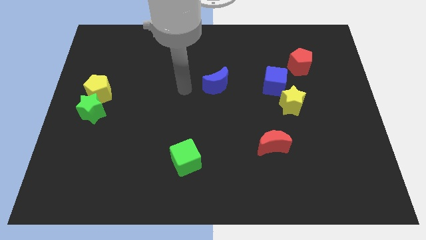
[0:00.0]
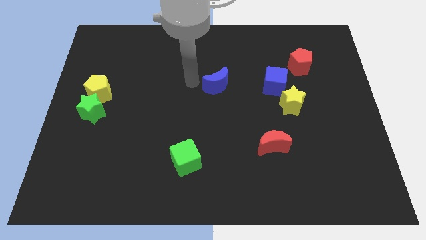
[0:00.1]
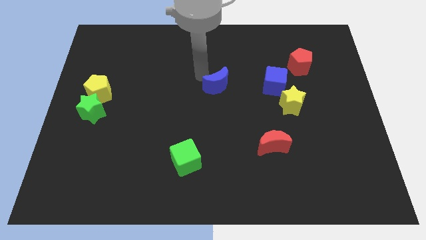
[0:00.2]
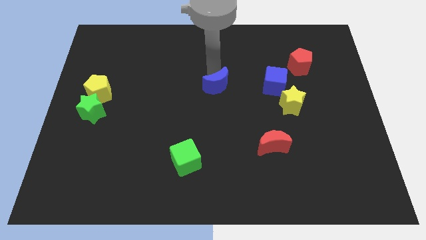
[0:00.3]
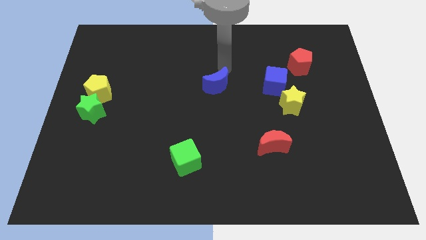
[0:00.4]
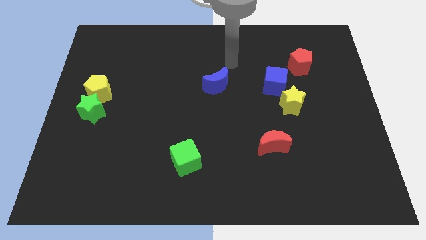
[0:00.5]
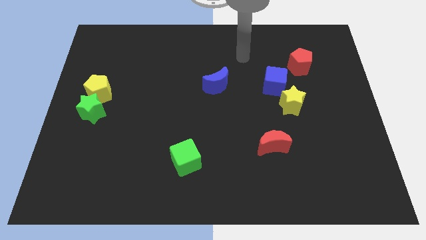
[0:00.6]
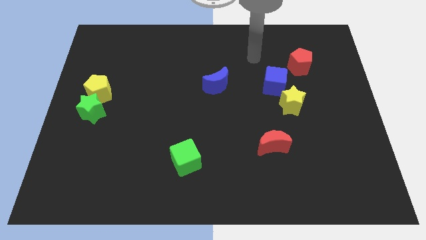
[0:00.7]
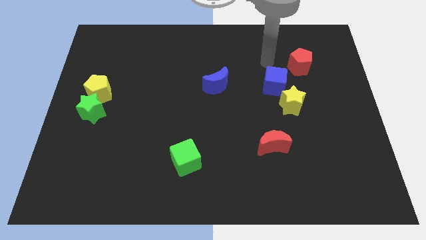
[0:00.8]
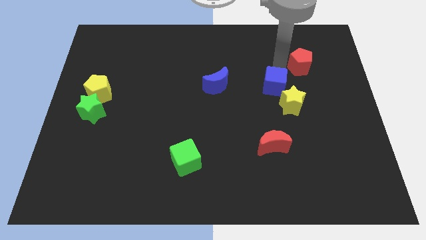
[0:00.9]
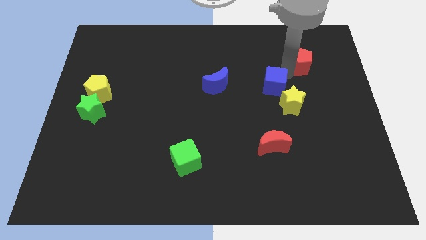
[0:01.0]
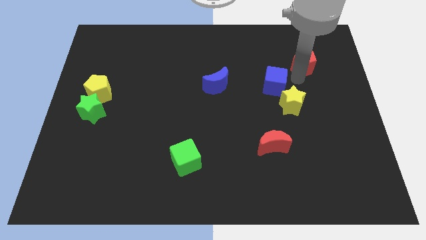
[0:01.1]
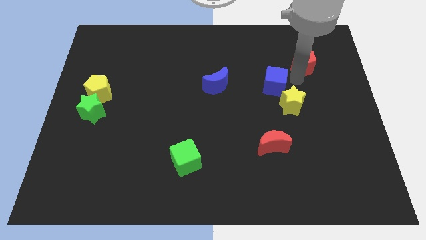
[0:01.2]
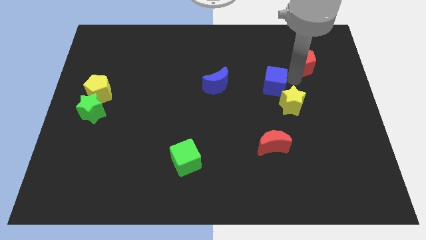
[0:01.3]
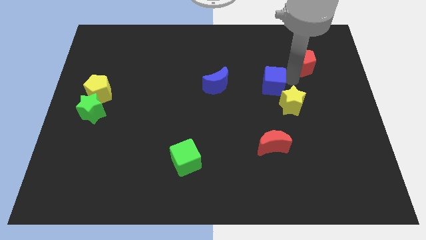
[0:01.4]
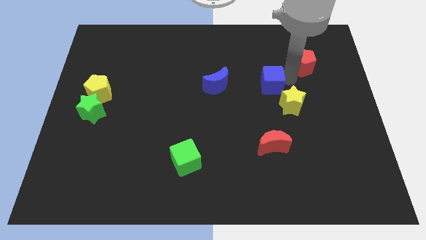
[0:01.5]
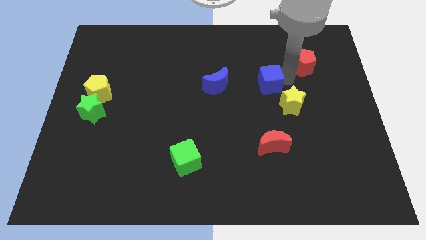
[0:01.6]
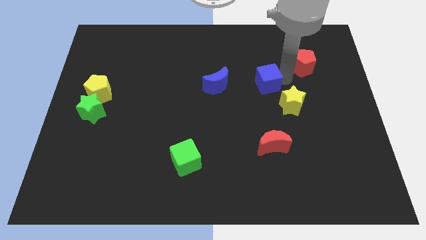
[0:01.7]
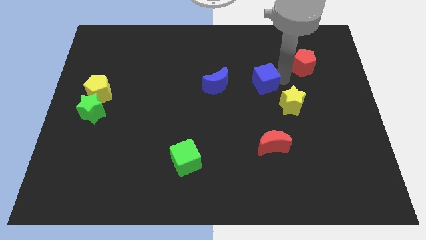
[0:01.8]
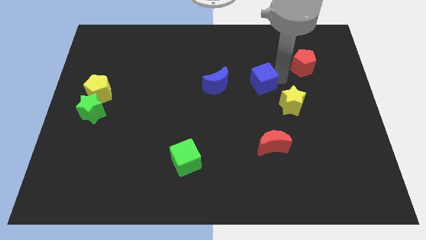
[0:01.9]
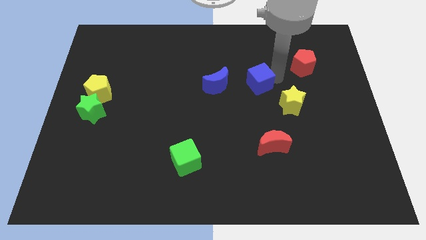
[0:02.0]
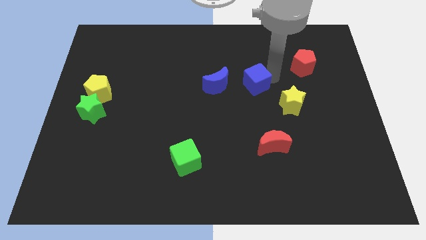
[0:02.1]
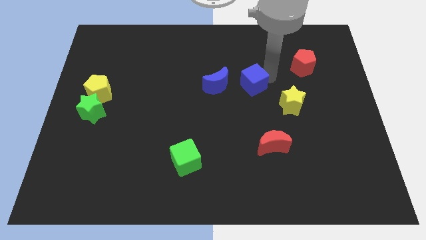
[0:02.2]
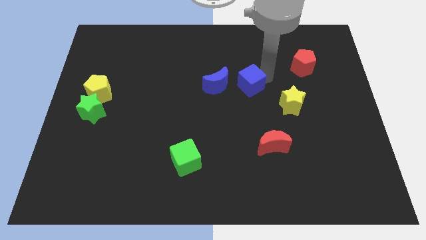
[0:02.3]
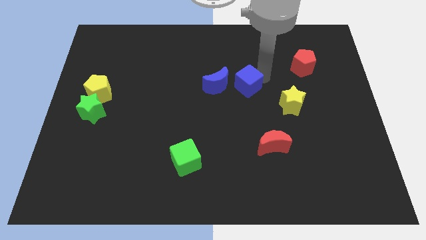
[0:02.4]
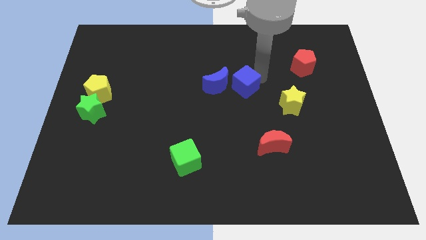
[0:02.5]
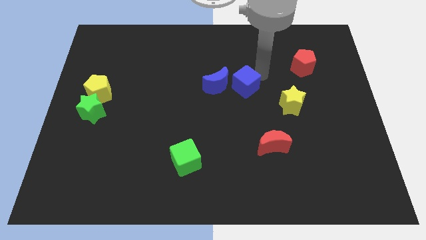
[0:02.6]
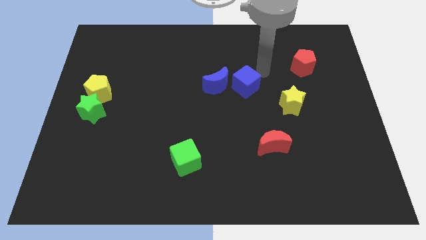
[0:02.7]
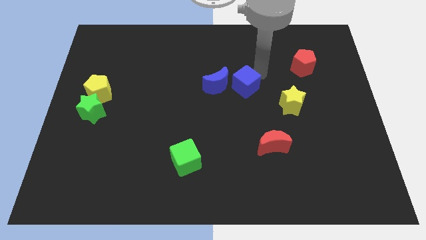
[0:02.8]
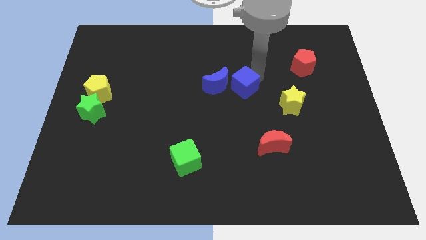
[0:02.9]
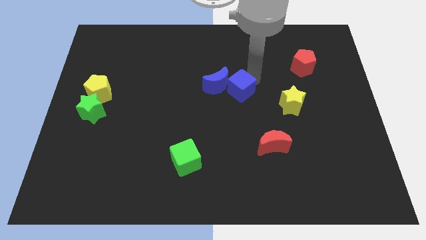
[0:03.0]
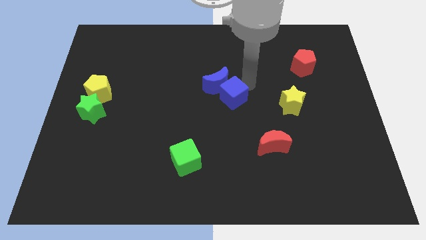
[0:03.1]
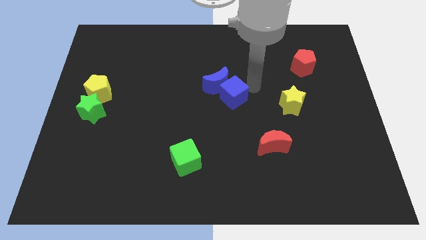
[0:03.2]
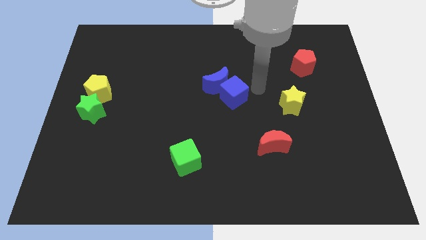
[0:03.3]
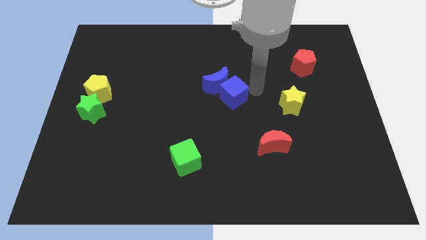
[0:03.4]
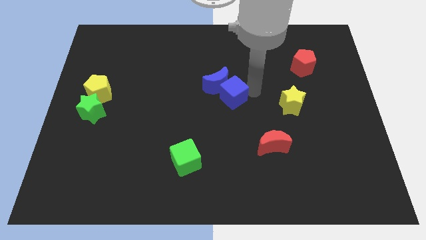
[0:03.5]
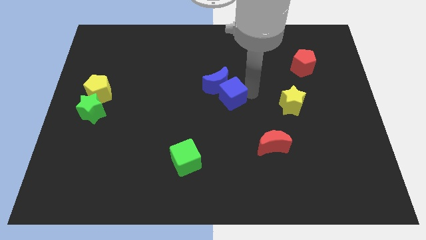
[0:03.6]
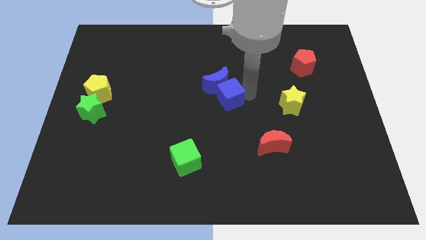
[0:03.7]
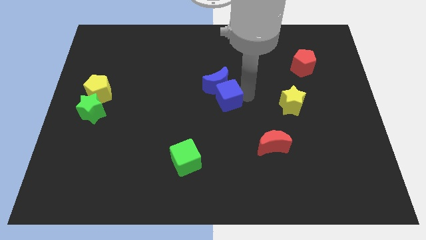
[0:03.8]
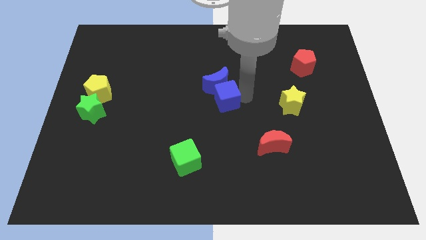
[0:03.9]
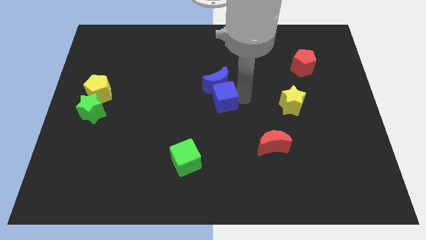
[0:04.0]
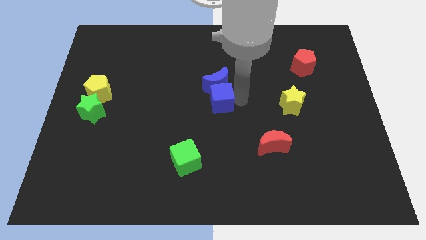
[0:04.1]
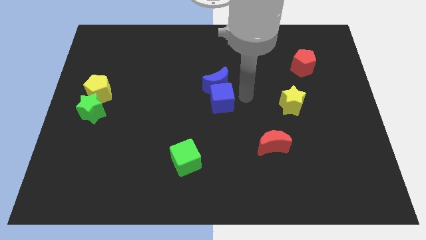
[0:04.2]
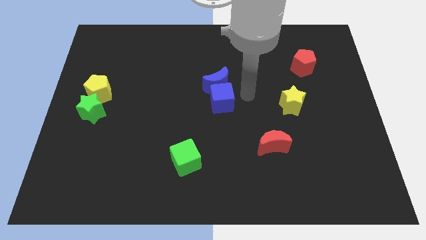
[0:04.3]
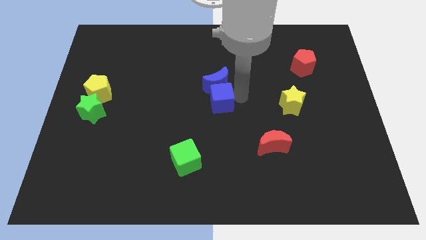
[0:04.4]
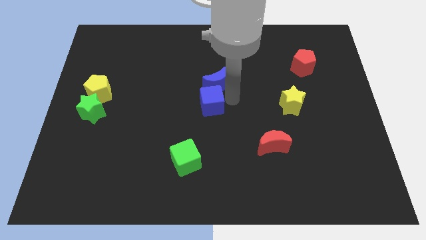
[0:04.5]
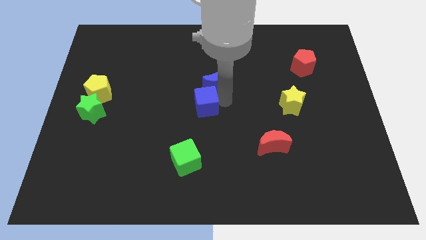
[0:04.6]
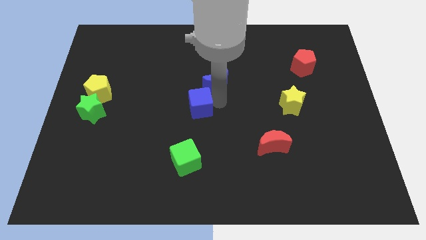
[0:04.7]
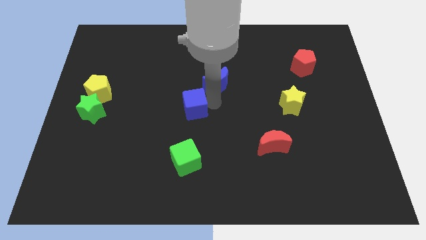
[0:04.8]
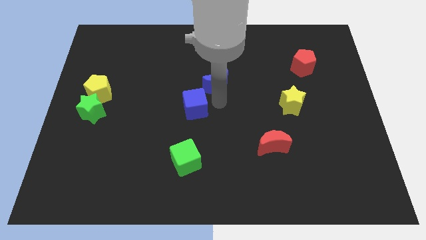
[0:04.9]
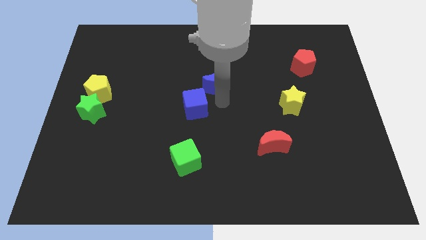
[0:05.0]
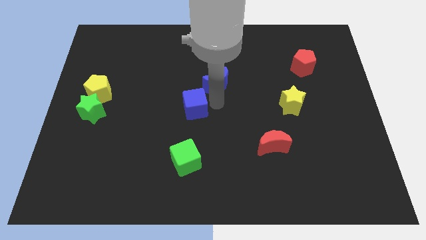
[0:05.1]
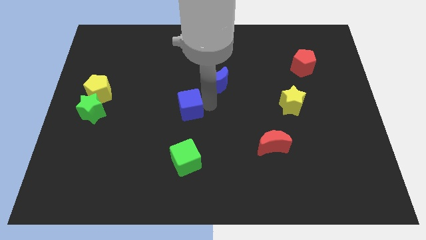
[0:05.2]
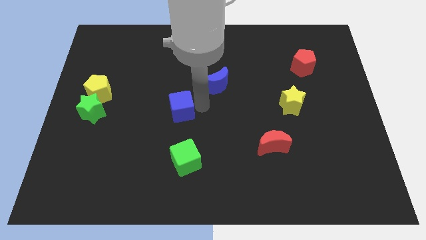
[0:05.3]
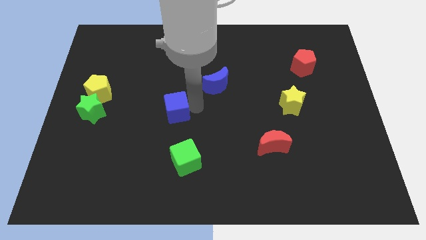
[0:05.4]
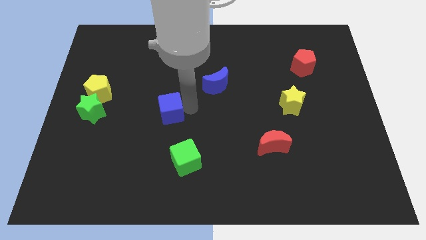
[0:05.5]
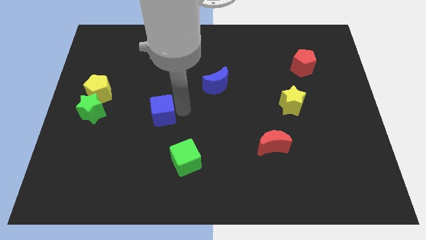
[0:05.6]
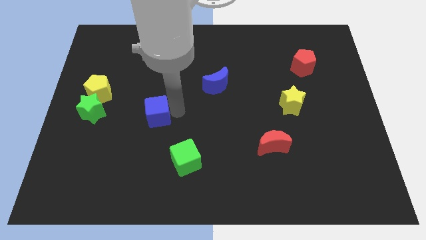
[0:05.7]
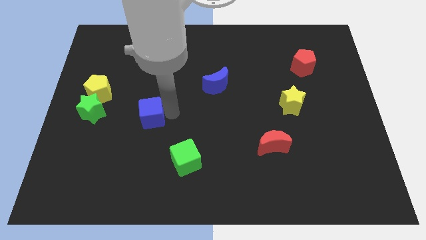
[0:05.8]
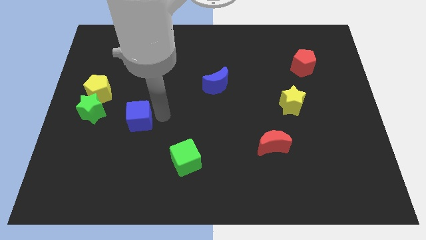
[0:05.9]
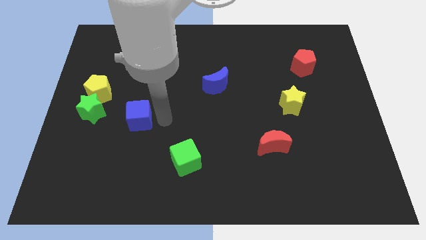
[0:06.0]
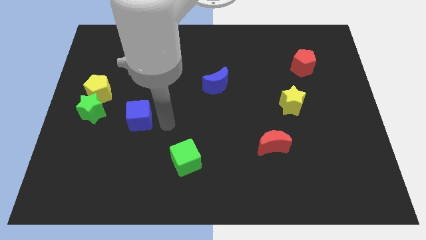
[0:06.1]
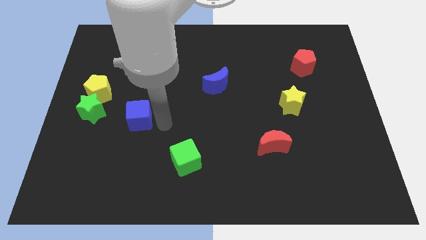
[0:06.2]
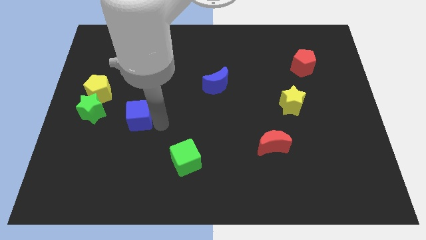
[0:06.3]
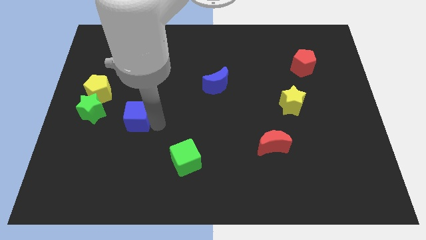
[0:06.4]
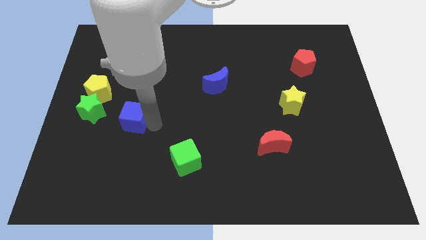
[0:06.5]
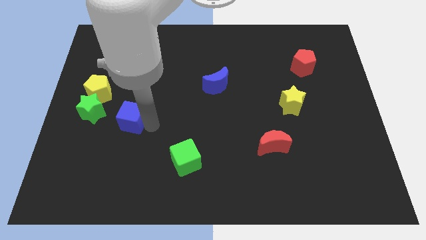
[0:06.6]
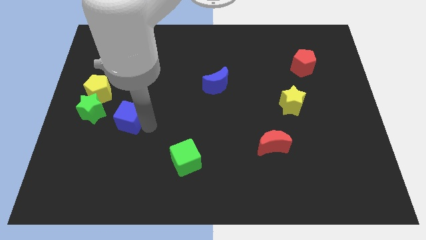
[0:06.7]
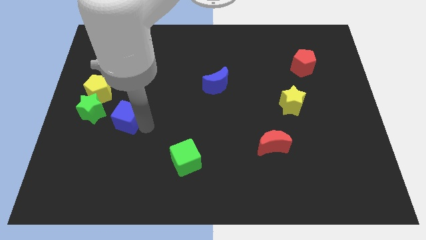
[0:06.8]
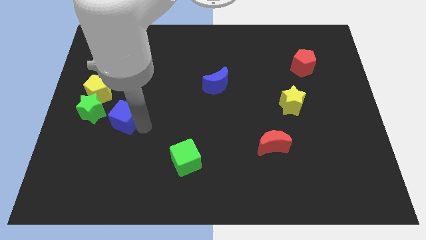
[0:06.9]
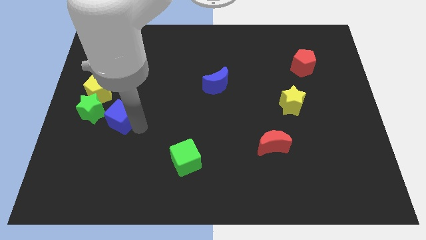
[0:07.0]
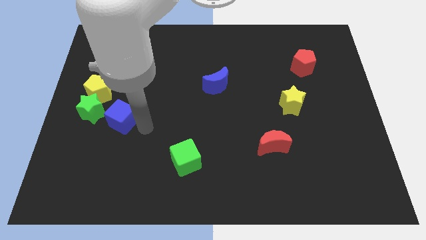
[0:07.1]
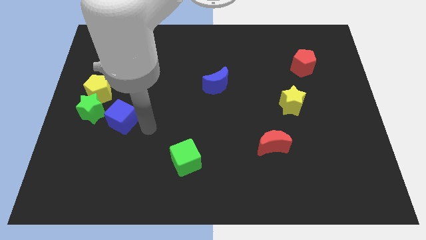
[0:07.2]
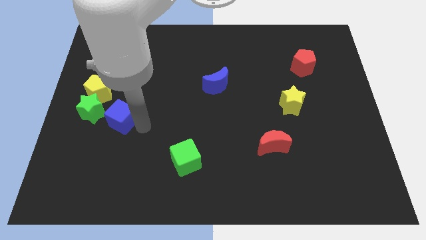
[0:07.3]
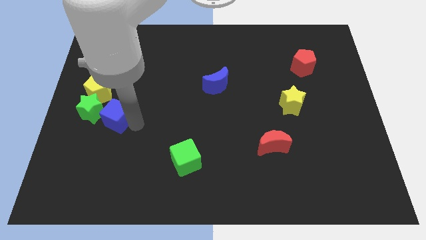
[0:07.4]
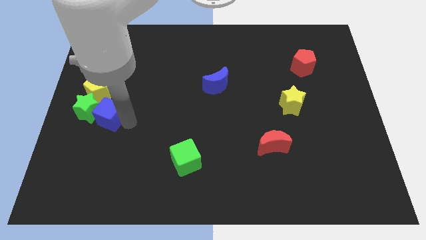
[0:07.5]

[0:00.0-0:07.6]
slide the blue cube to the green star
